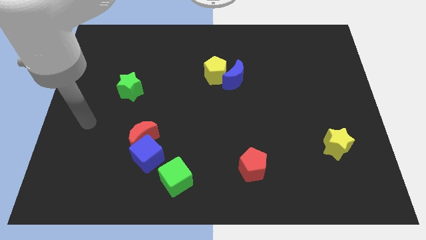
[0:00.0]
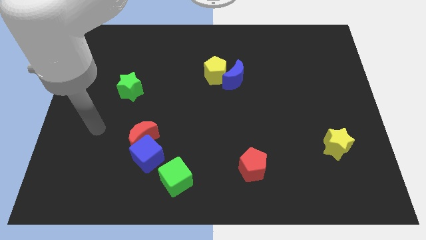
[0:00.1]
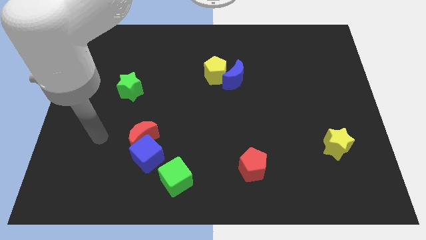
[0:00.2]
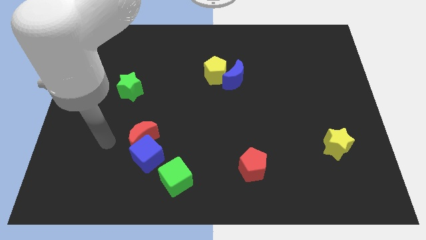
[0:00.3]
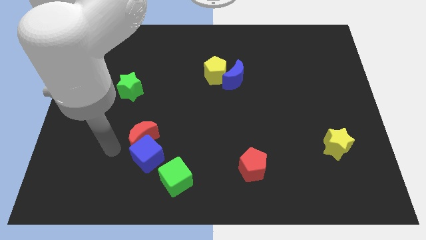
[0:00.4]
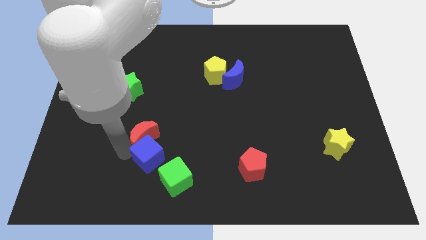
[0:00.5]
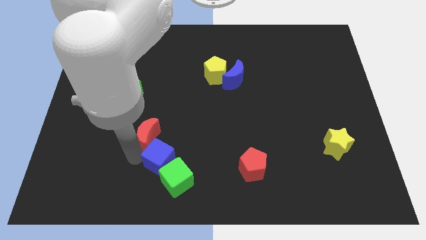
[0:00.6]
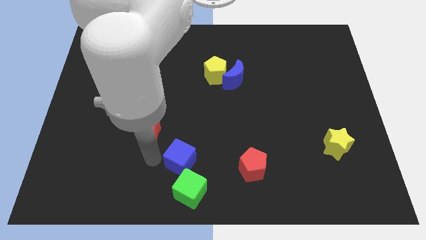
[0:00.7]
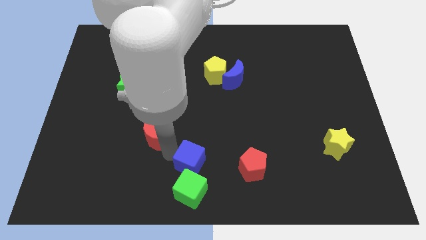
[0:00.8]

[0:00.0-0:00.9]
move the red moon away from the blue cube

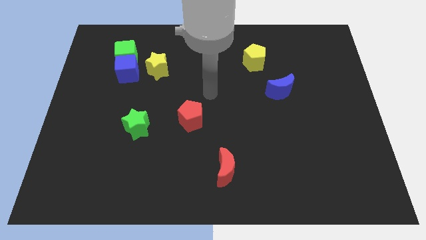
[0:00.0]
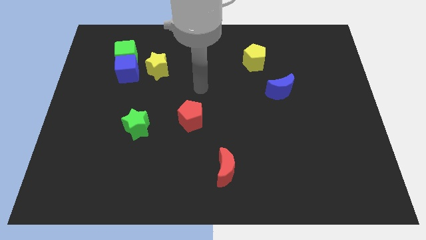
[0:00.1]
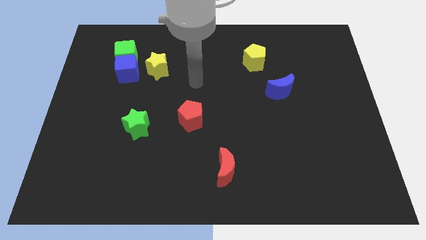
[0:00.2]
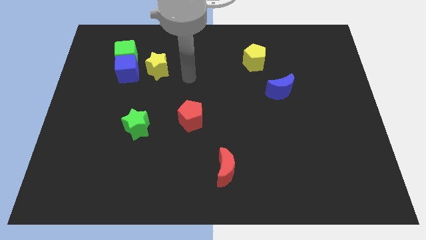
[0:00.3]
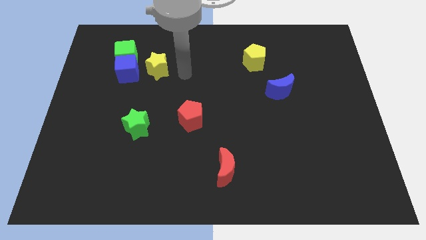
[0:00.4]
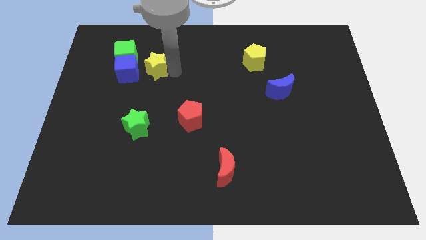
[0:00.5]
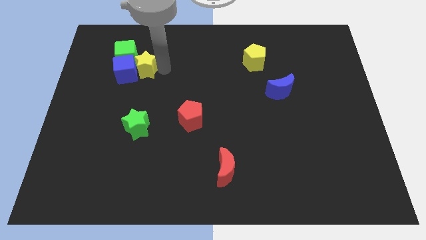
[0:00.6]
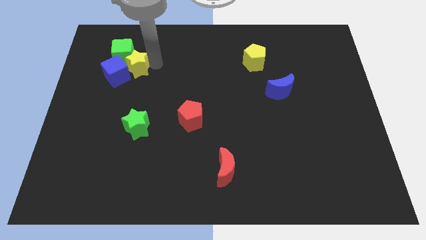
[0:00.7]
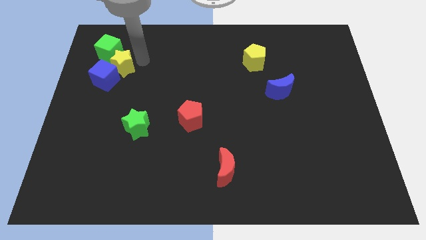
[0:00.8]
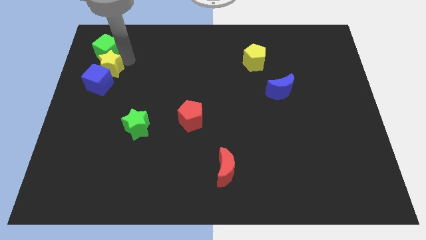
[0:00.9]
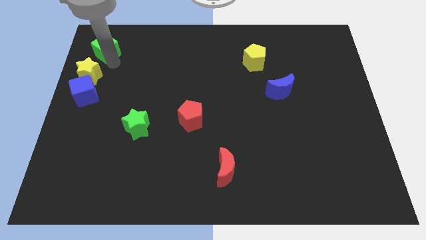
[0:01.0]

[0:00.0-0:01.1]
move the blue cube away from the green cube and yellow star

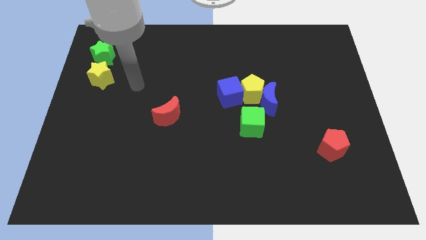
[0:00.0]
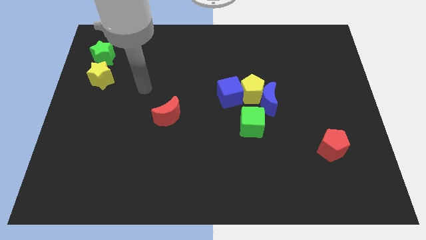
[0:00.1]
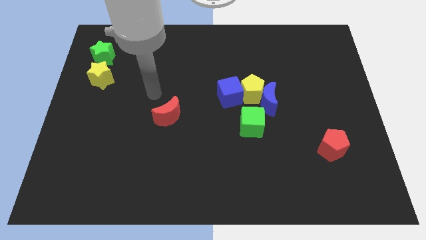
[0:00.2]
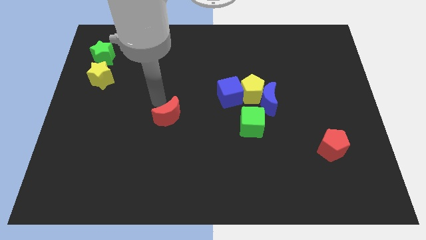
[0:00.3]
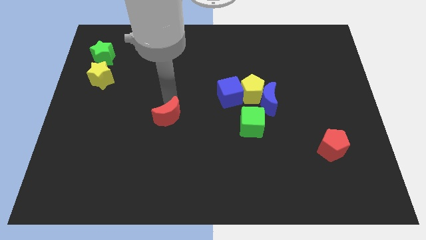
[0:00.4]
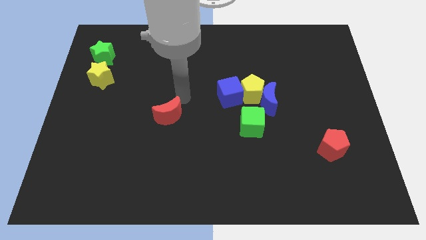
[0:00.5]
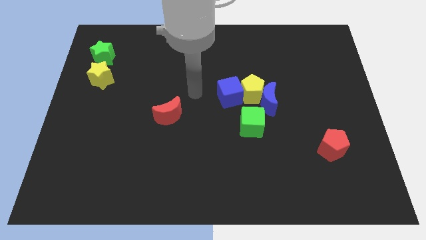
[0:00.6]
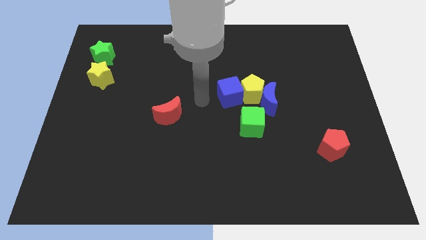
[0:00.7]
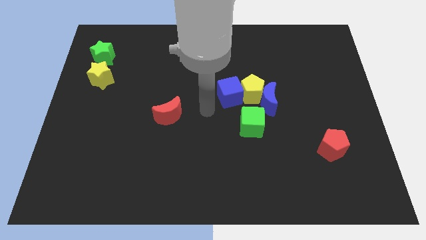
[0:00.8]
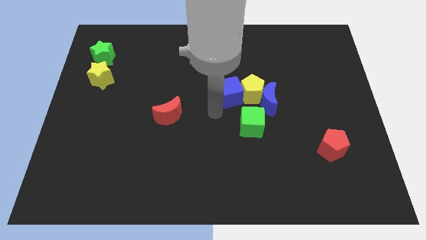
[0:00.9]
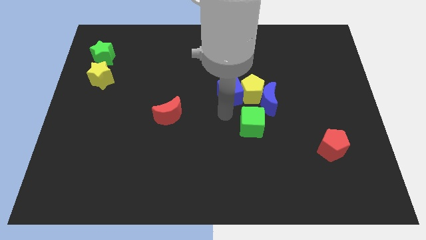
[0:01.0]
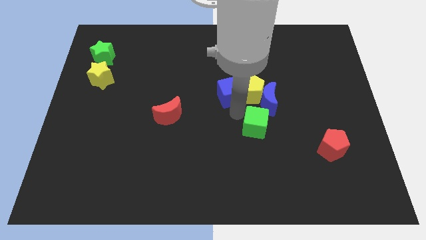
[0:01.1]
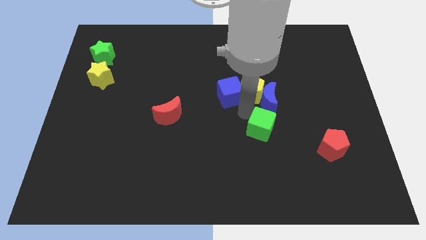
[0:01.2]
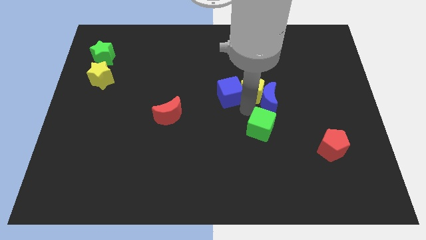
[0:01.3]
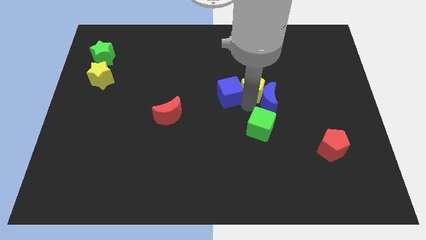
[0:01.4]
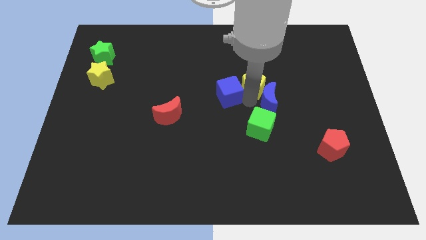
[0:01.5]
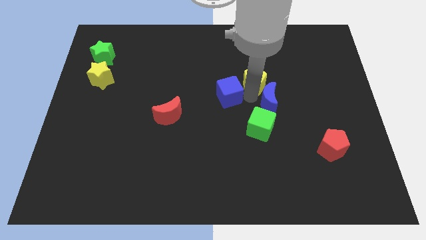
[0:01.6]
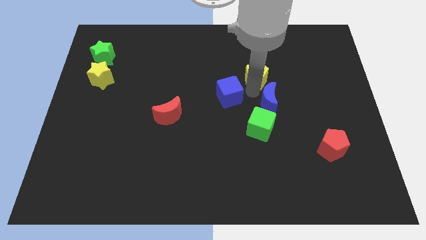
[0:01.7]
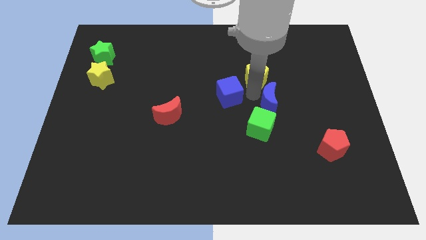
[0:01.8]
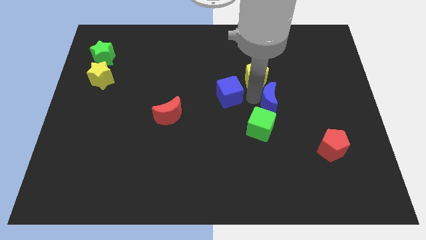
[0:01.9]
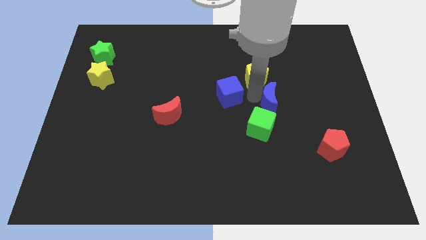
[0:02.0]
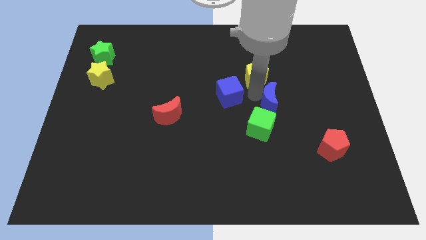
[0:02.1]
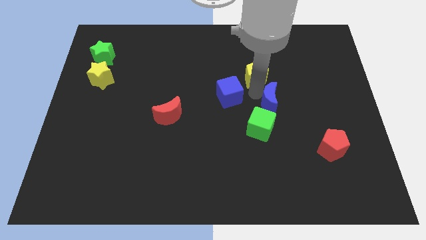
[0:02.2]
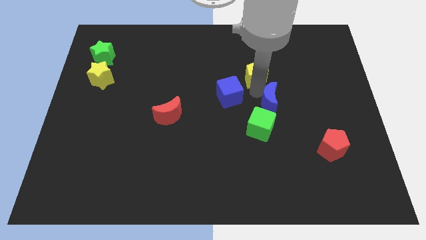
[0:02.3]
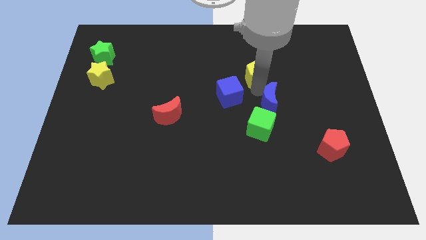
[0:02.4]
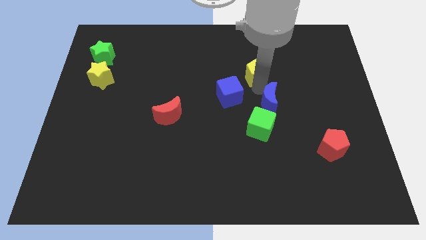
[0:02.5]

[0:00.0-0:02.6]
pull the yellow pentagon apart from the group

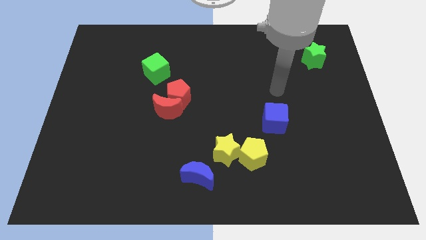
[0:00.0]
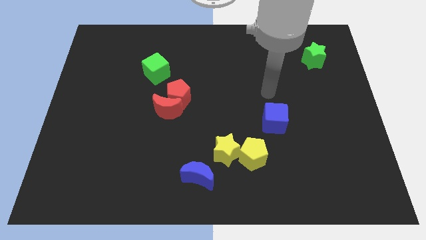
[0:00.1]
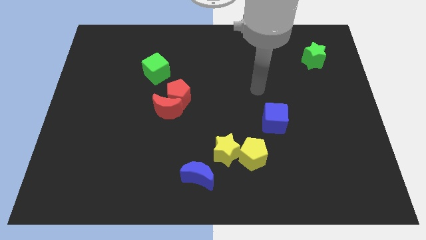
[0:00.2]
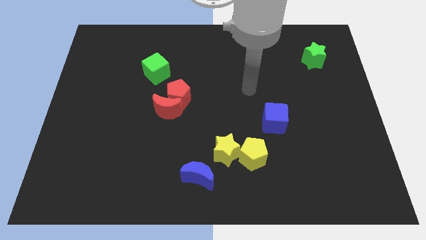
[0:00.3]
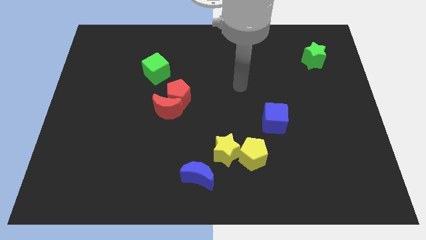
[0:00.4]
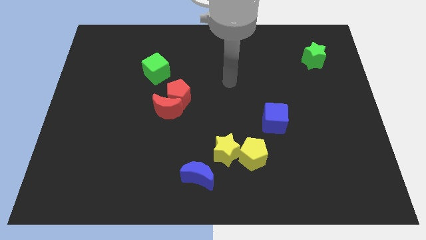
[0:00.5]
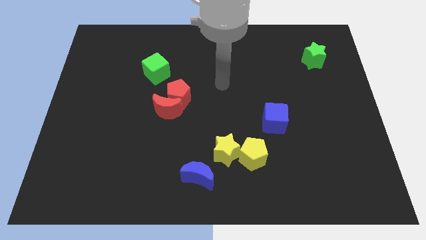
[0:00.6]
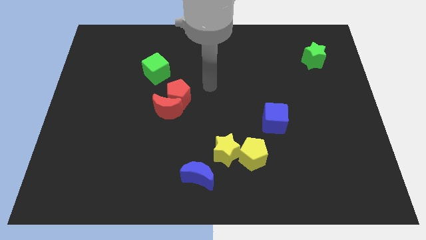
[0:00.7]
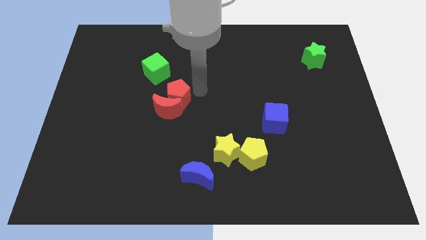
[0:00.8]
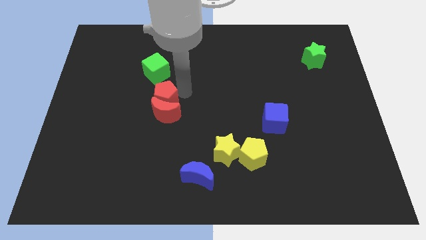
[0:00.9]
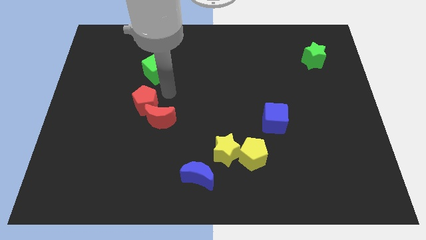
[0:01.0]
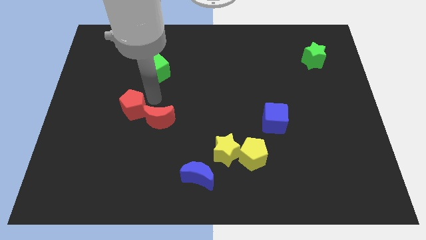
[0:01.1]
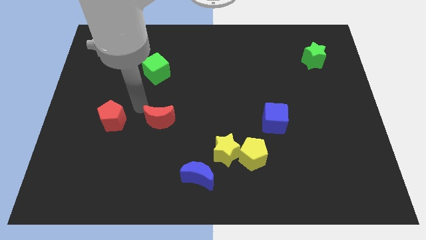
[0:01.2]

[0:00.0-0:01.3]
pull the red moon apart from the red pentagon

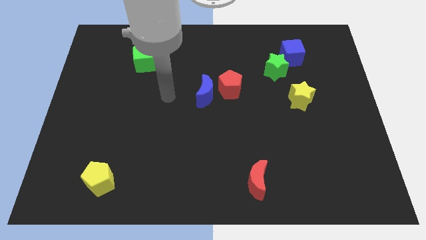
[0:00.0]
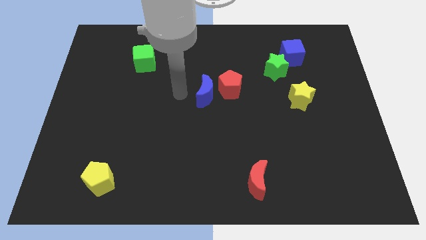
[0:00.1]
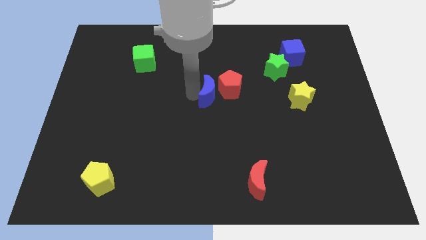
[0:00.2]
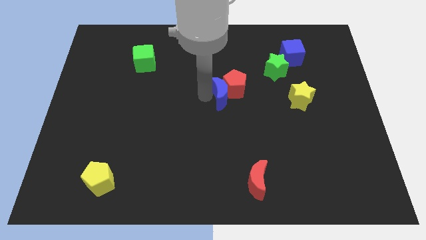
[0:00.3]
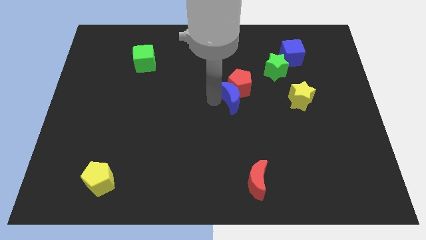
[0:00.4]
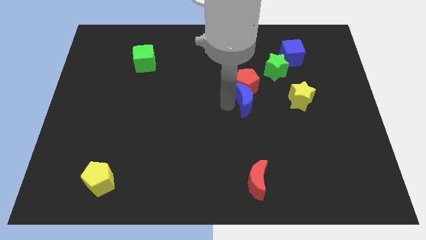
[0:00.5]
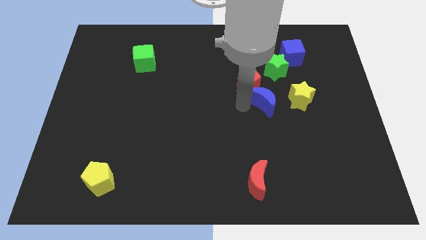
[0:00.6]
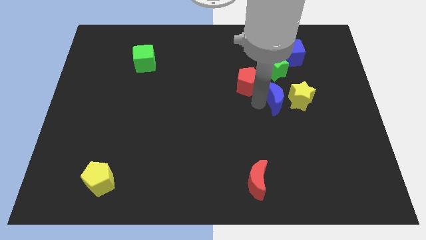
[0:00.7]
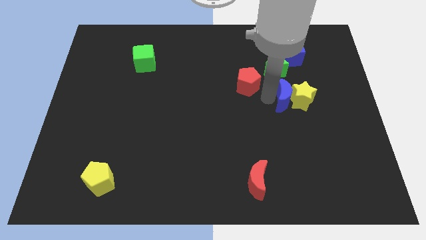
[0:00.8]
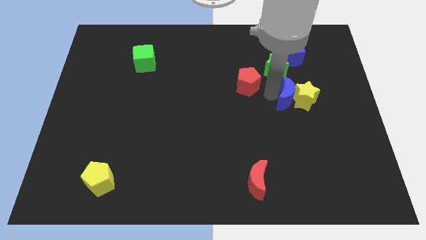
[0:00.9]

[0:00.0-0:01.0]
pull the red pentagon apart from the blue moon

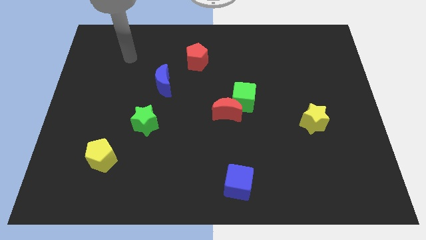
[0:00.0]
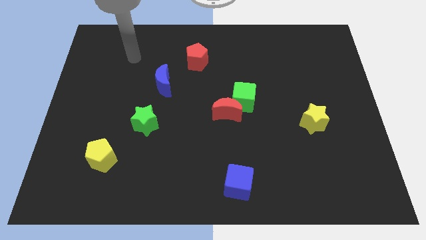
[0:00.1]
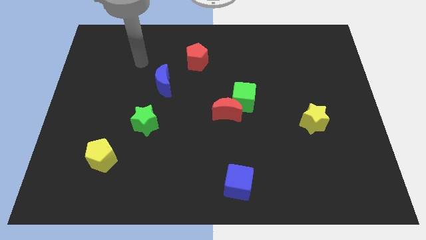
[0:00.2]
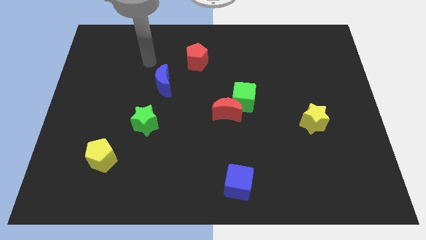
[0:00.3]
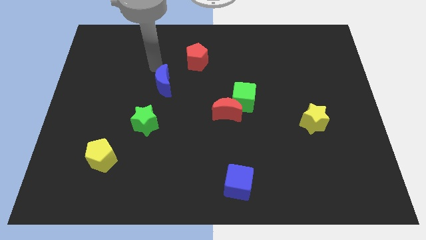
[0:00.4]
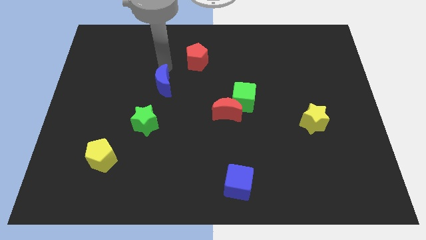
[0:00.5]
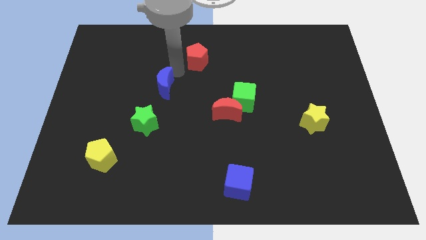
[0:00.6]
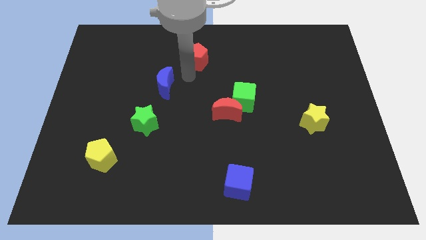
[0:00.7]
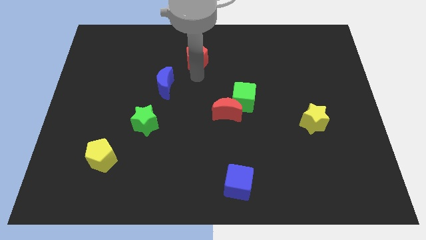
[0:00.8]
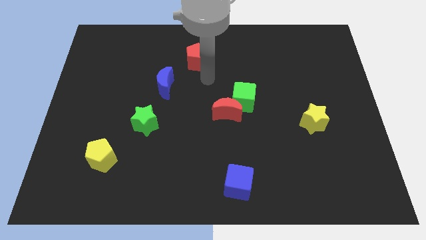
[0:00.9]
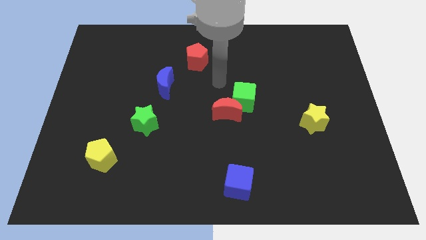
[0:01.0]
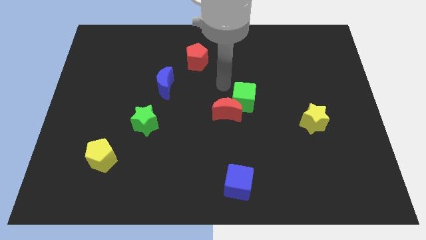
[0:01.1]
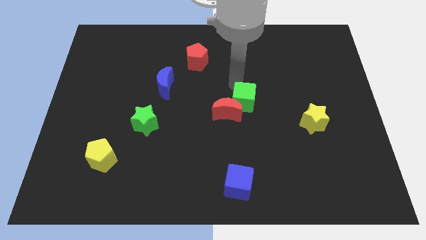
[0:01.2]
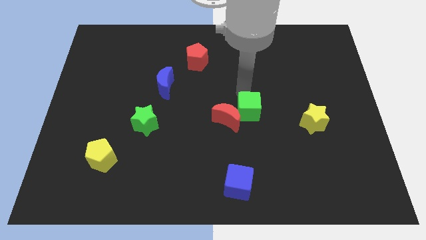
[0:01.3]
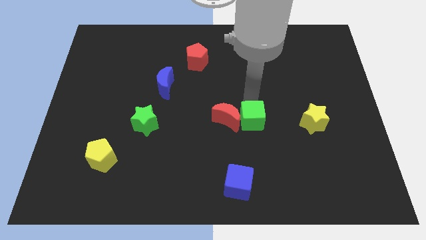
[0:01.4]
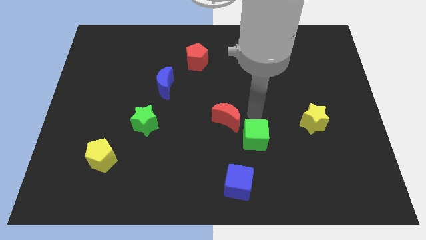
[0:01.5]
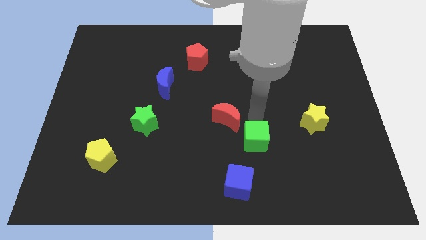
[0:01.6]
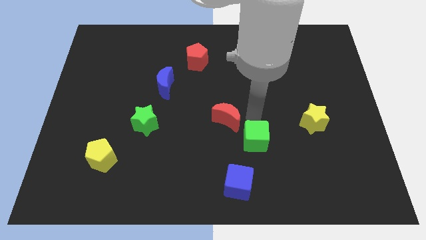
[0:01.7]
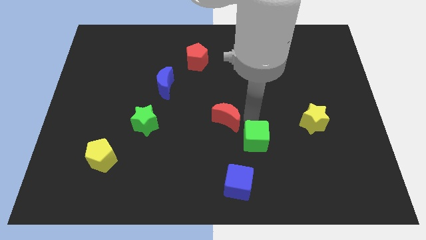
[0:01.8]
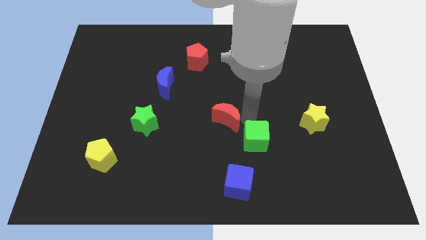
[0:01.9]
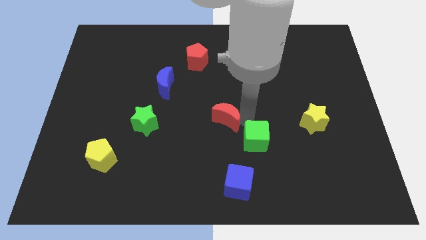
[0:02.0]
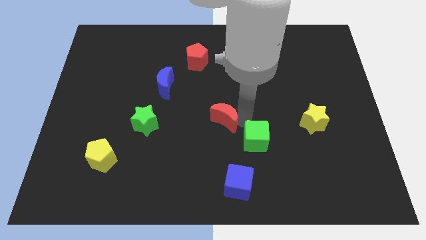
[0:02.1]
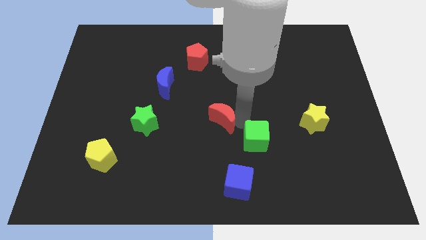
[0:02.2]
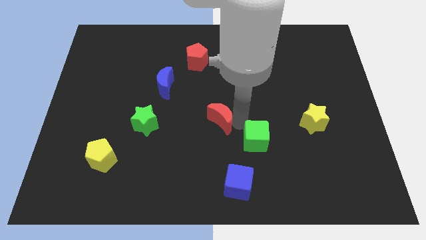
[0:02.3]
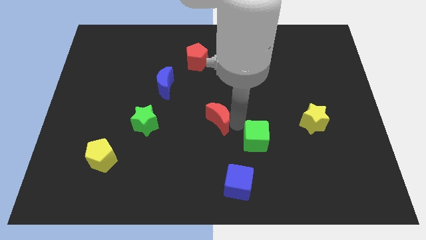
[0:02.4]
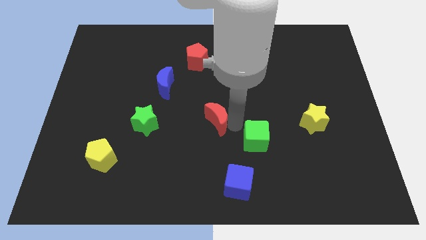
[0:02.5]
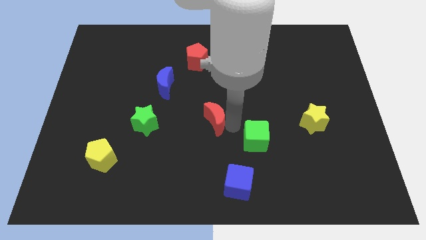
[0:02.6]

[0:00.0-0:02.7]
pull the red moon apart from the green cube
